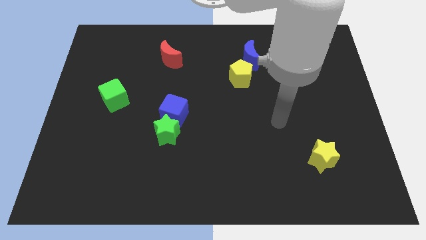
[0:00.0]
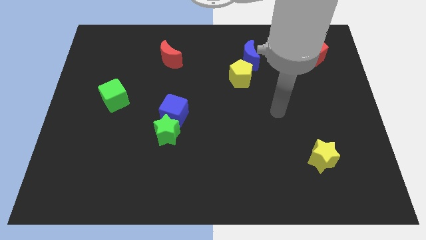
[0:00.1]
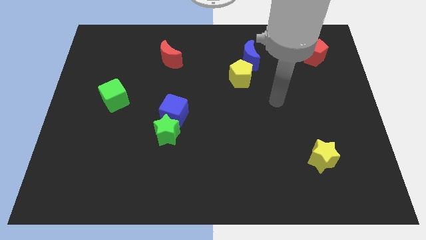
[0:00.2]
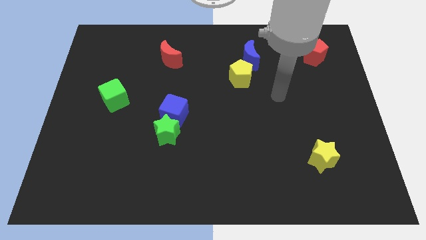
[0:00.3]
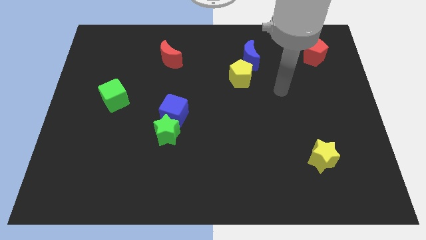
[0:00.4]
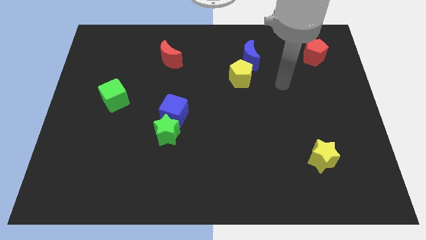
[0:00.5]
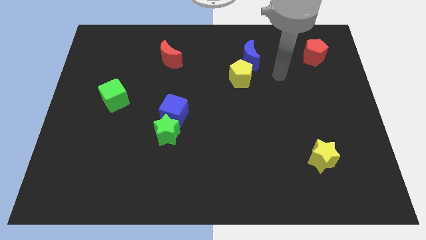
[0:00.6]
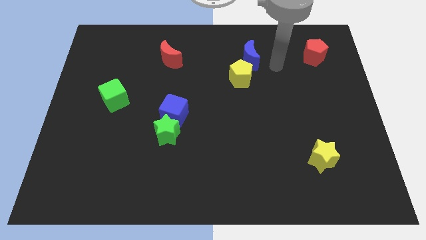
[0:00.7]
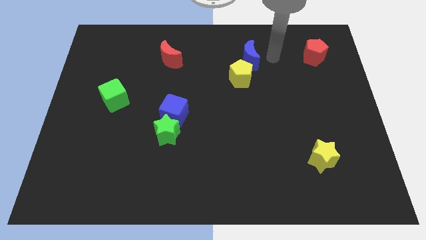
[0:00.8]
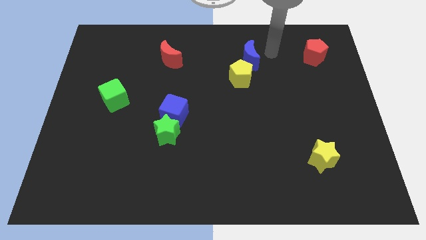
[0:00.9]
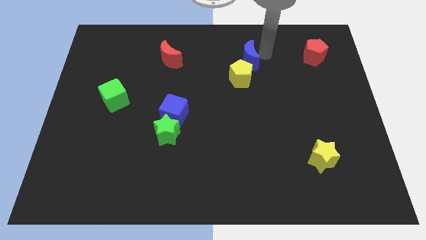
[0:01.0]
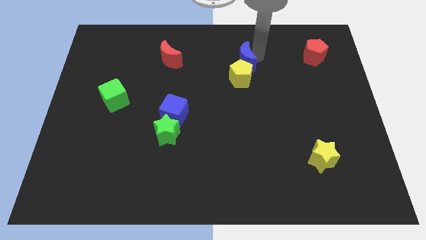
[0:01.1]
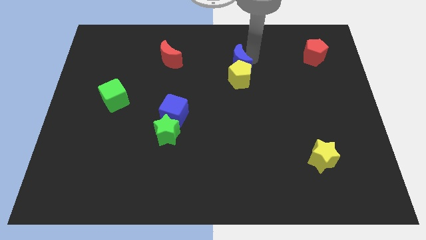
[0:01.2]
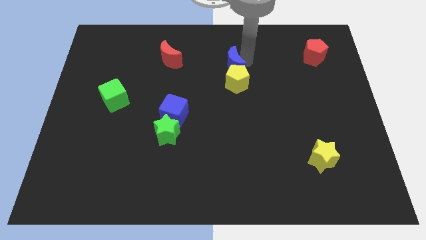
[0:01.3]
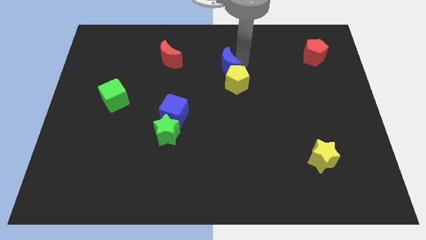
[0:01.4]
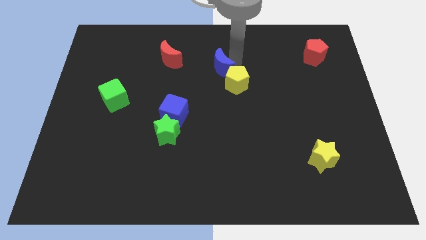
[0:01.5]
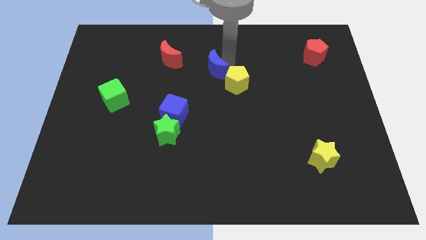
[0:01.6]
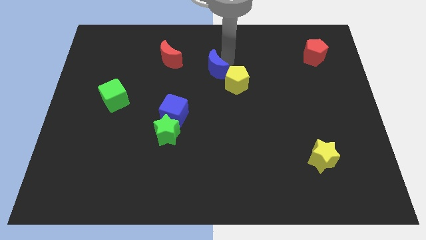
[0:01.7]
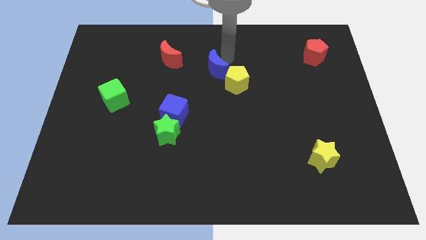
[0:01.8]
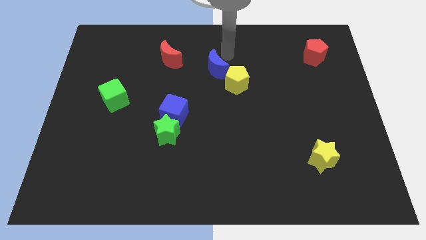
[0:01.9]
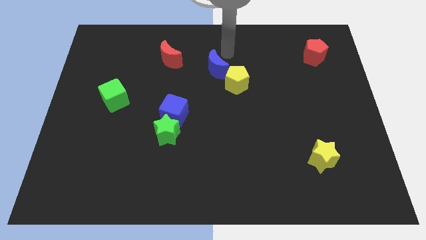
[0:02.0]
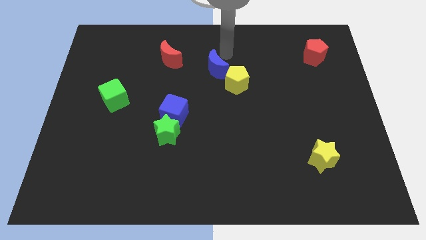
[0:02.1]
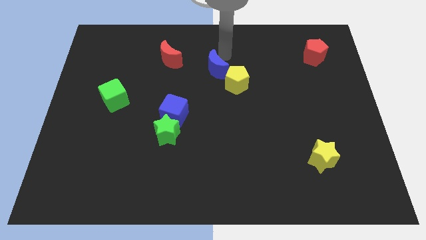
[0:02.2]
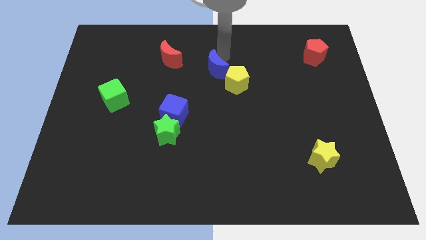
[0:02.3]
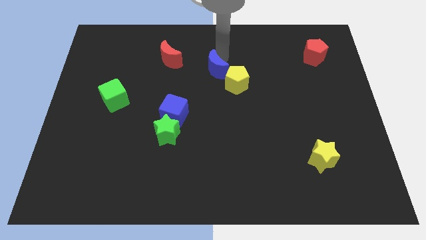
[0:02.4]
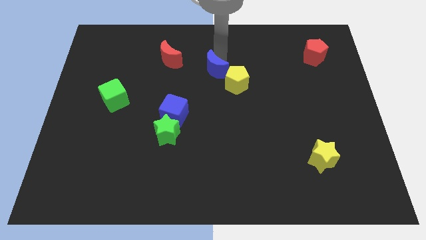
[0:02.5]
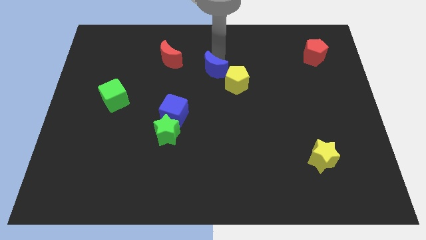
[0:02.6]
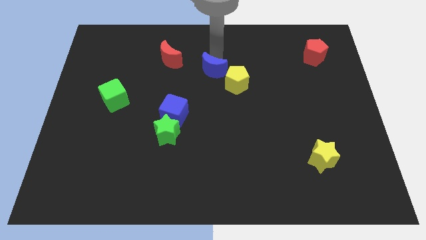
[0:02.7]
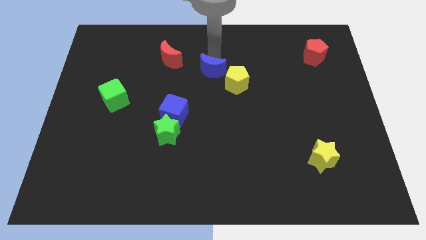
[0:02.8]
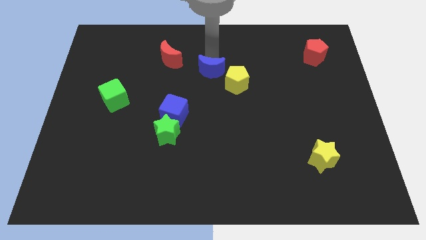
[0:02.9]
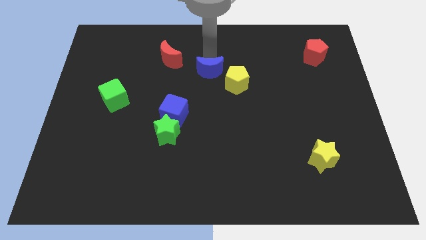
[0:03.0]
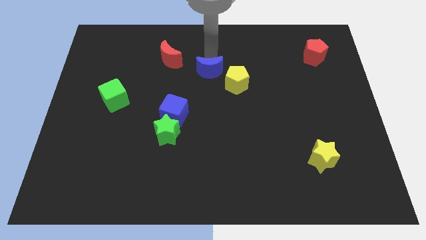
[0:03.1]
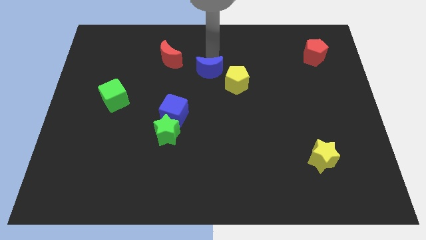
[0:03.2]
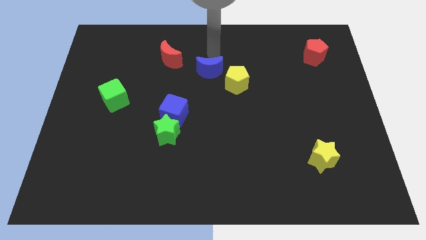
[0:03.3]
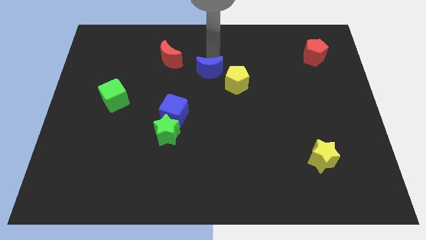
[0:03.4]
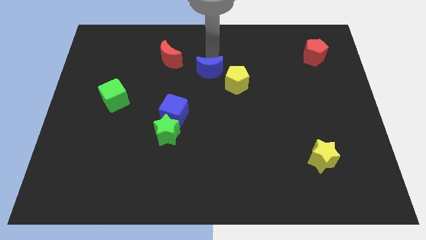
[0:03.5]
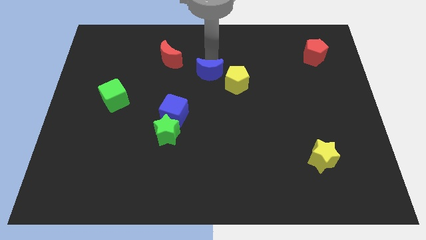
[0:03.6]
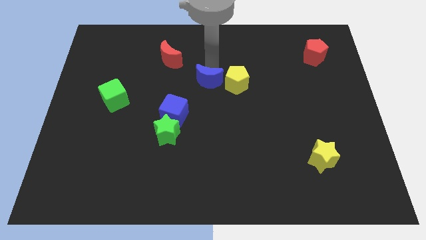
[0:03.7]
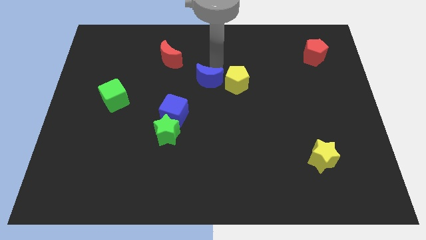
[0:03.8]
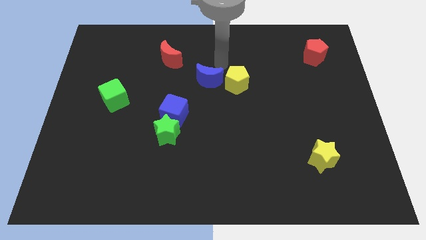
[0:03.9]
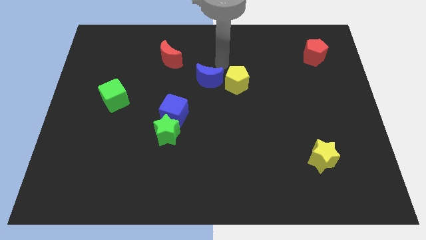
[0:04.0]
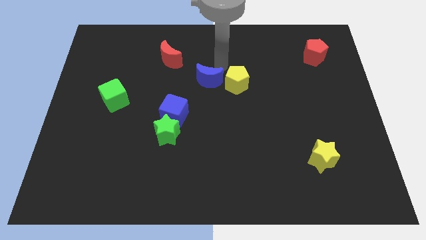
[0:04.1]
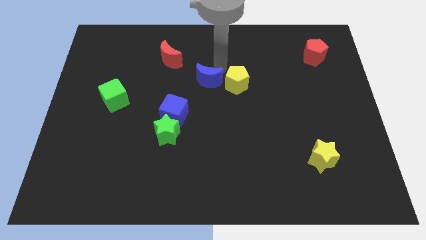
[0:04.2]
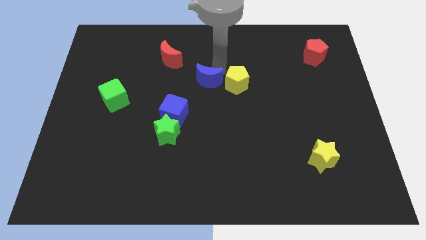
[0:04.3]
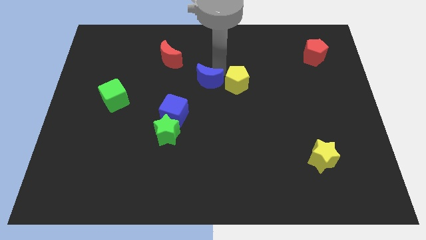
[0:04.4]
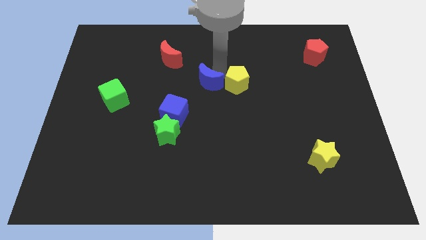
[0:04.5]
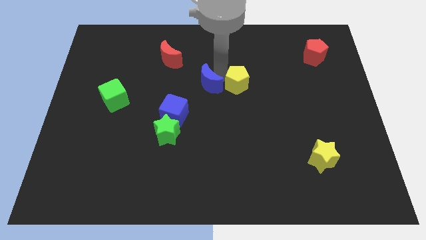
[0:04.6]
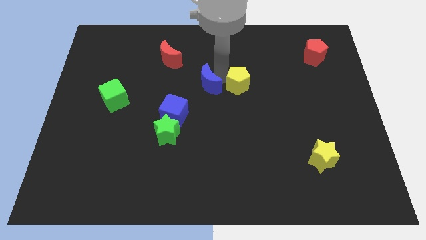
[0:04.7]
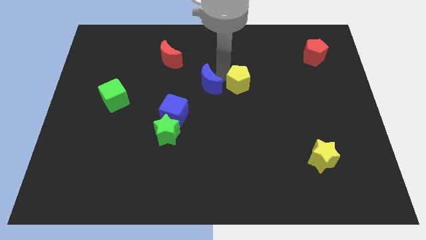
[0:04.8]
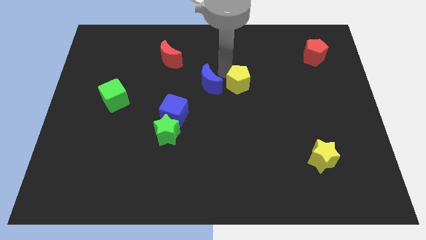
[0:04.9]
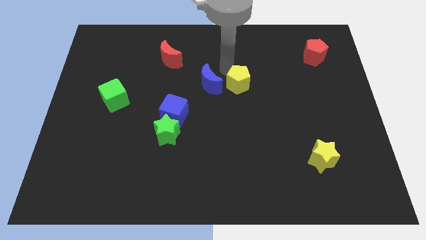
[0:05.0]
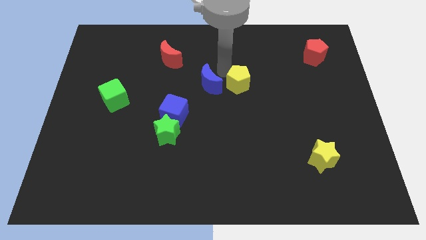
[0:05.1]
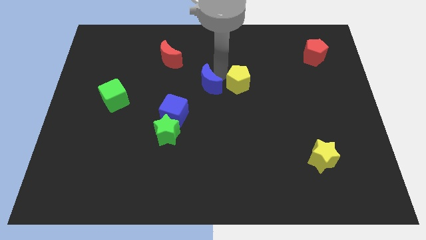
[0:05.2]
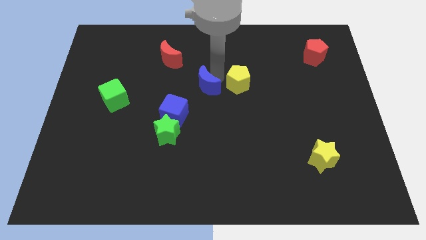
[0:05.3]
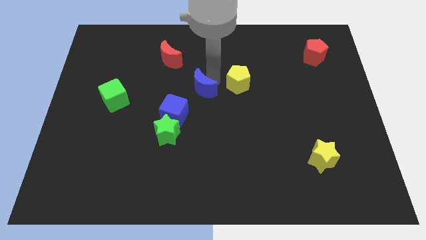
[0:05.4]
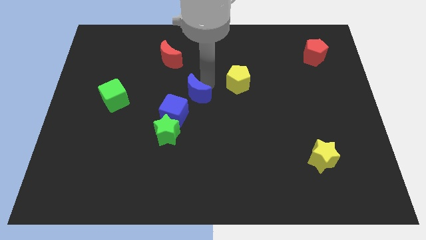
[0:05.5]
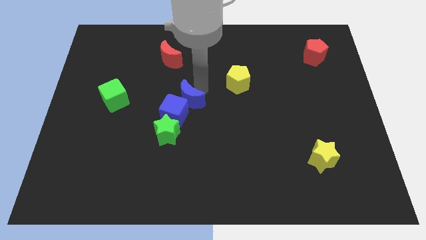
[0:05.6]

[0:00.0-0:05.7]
put the blue moon close to the blue cube

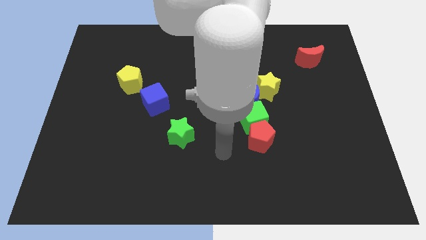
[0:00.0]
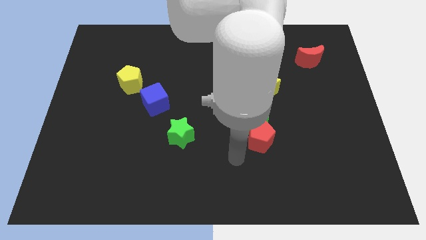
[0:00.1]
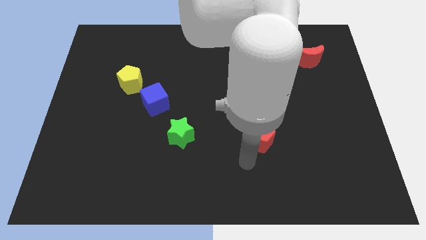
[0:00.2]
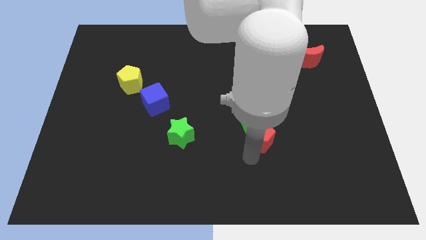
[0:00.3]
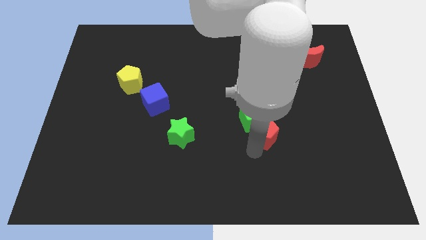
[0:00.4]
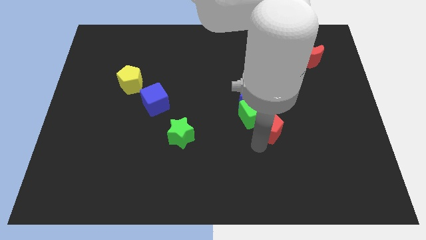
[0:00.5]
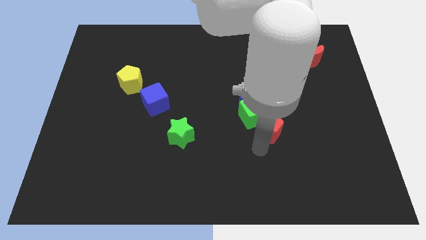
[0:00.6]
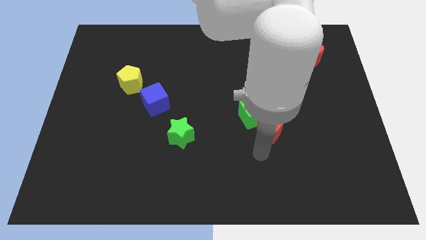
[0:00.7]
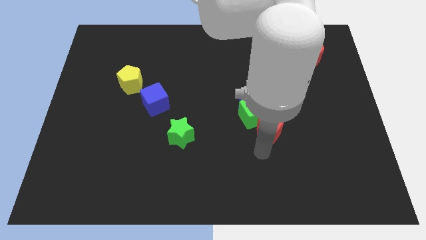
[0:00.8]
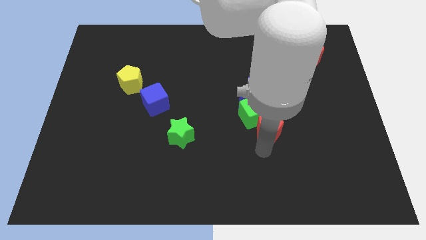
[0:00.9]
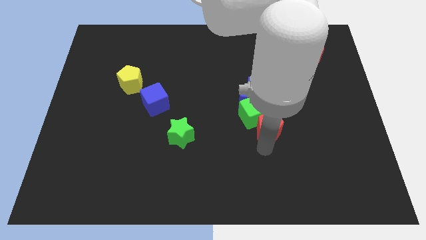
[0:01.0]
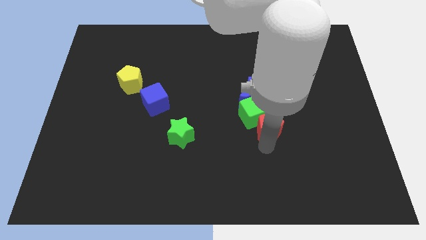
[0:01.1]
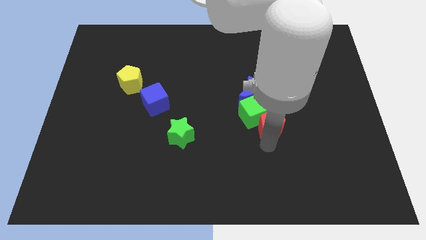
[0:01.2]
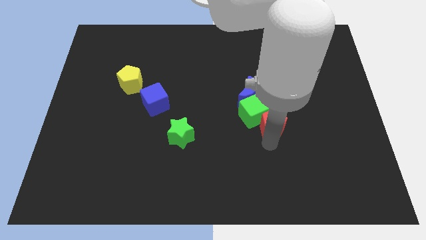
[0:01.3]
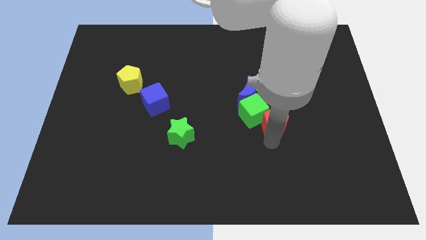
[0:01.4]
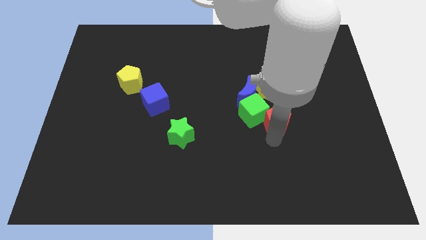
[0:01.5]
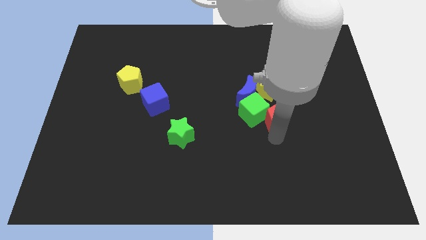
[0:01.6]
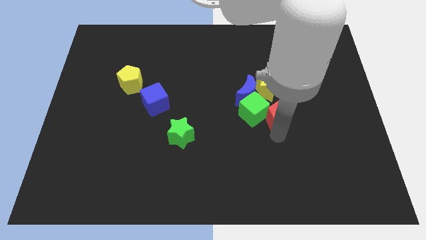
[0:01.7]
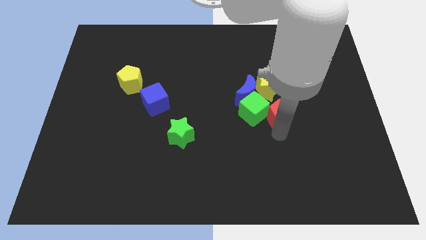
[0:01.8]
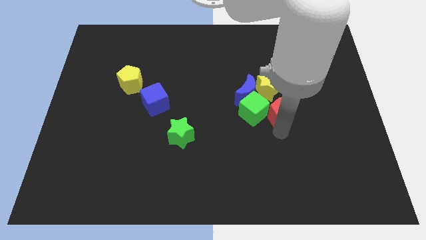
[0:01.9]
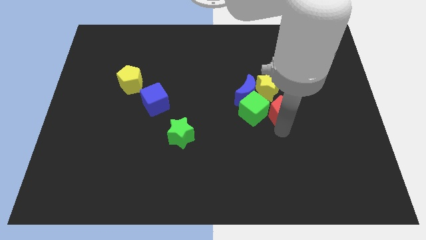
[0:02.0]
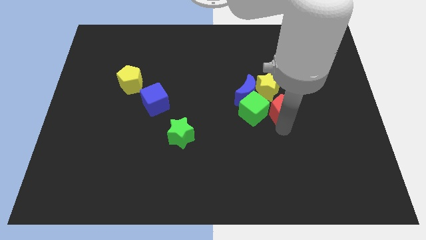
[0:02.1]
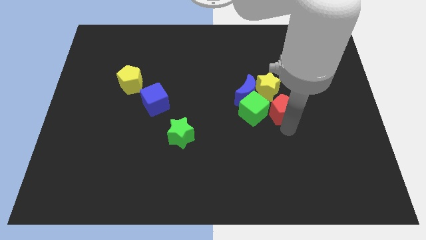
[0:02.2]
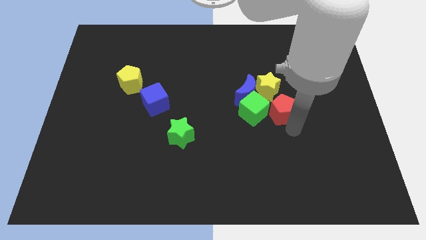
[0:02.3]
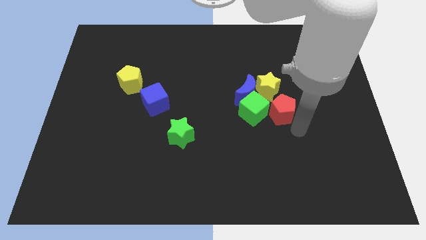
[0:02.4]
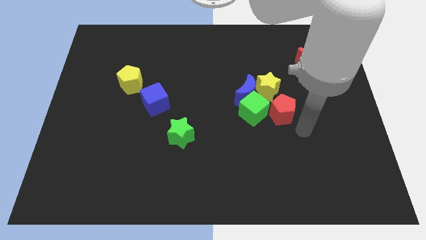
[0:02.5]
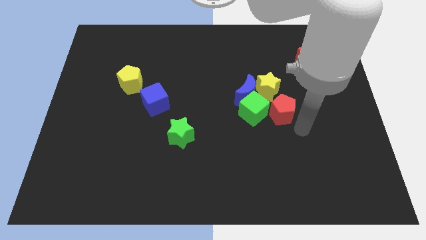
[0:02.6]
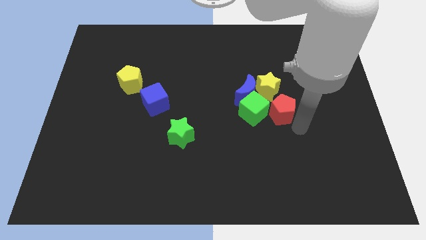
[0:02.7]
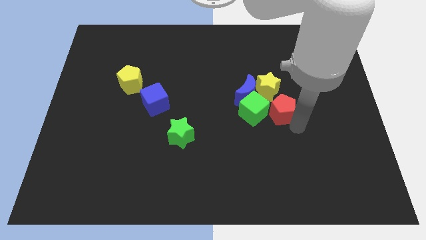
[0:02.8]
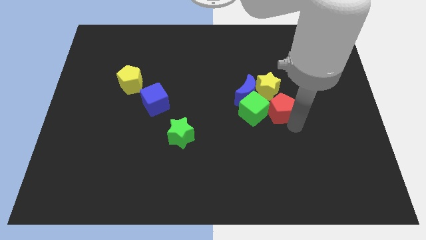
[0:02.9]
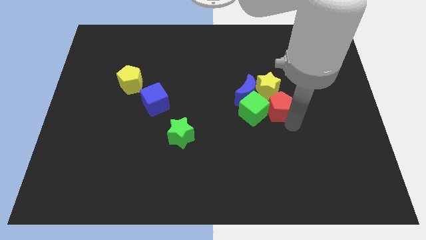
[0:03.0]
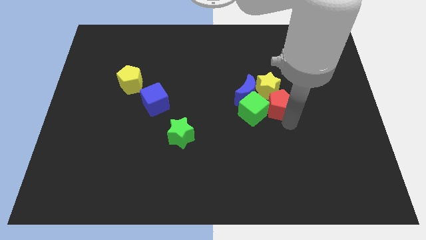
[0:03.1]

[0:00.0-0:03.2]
put the red pentagon to the yellow star
